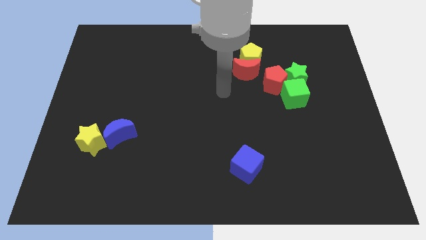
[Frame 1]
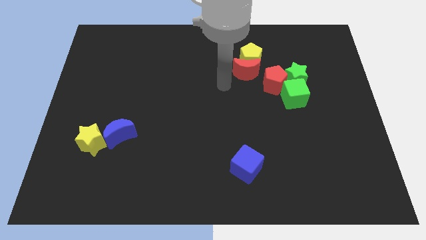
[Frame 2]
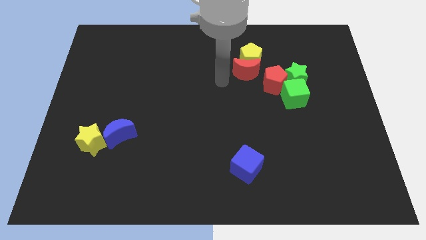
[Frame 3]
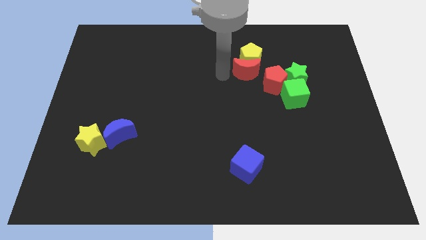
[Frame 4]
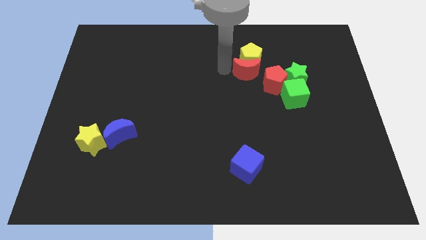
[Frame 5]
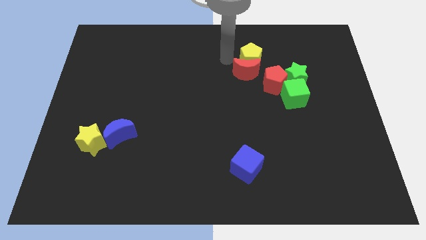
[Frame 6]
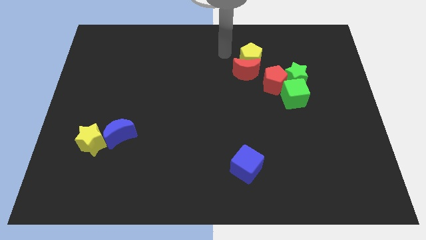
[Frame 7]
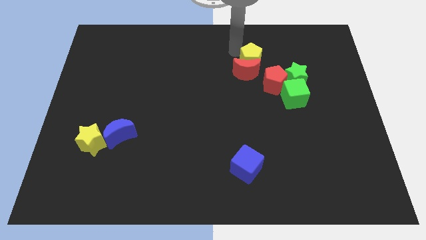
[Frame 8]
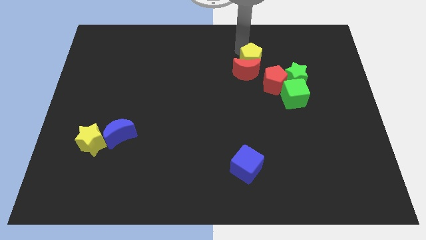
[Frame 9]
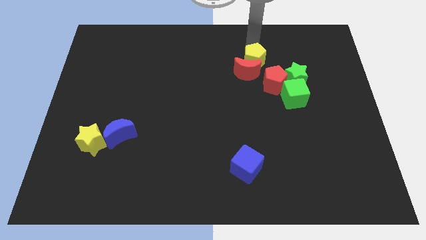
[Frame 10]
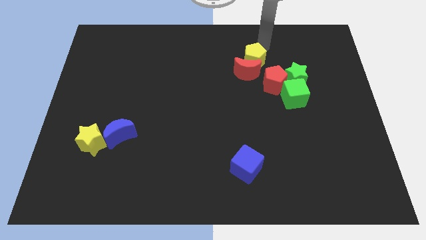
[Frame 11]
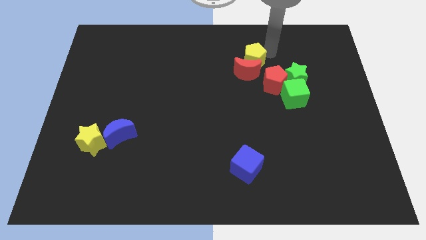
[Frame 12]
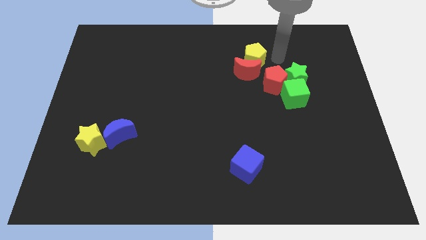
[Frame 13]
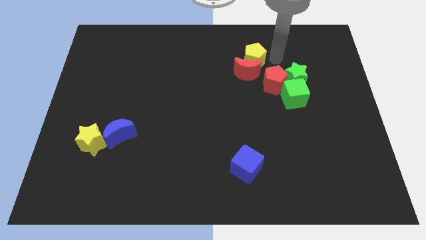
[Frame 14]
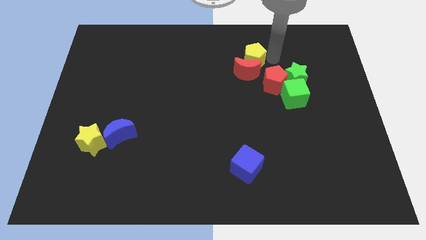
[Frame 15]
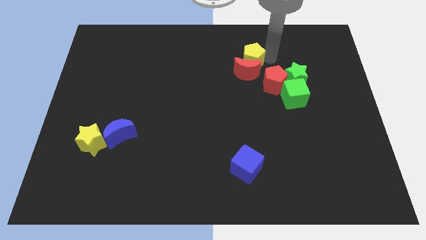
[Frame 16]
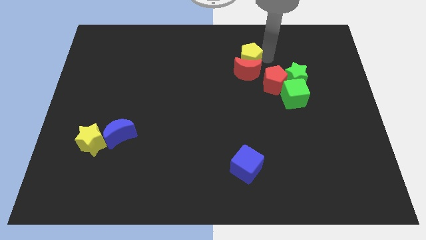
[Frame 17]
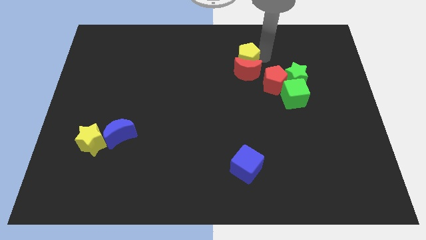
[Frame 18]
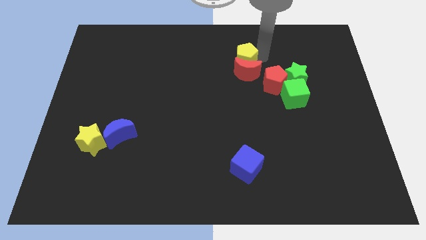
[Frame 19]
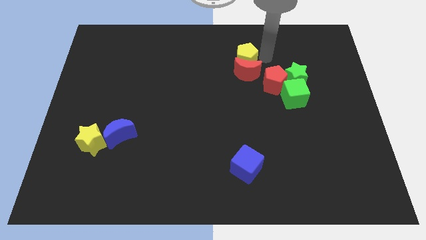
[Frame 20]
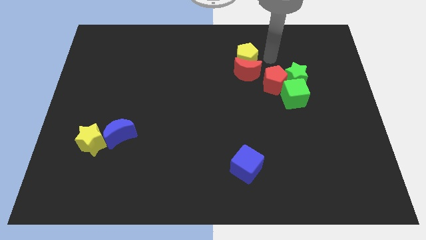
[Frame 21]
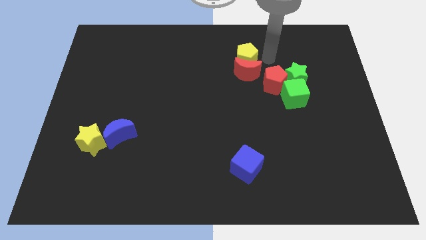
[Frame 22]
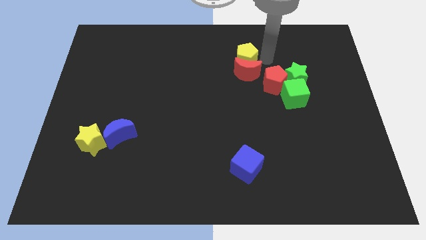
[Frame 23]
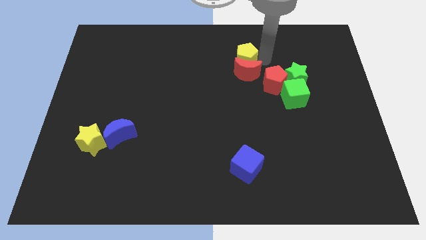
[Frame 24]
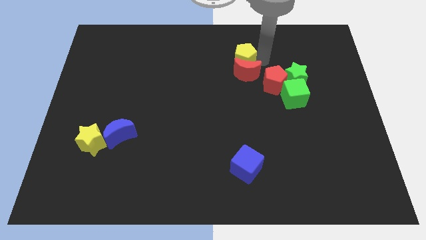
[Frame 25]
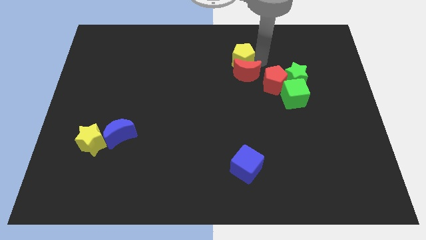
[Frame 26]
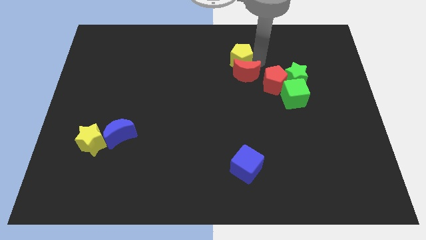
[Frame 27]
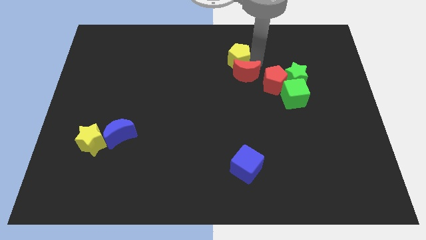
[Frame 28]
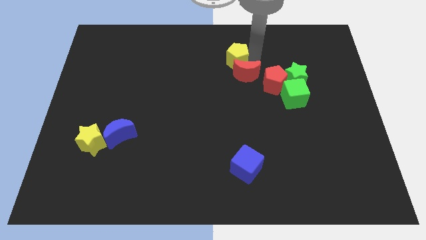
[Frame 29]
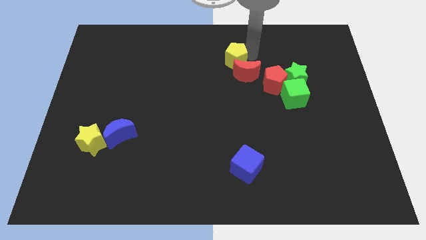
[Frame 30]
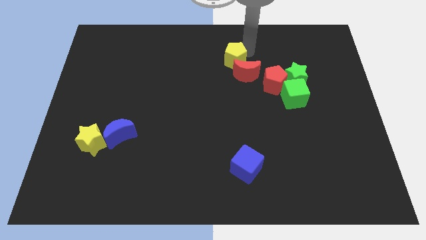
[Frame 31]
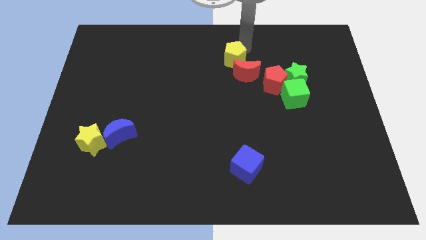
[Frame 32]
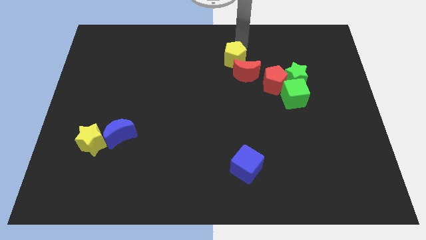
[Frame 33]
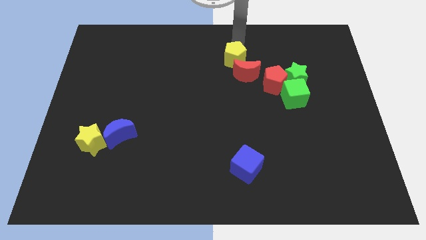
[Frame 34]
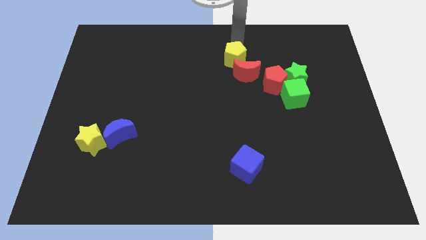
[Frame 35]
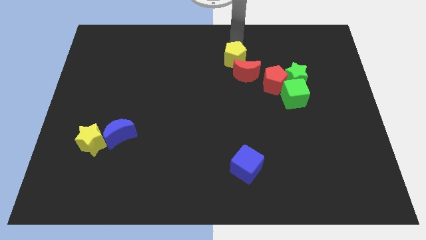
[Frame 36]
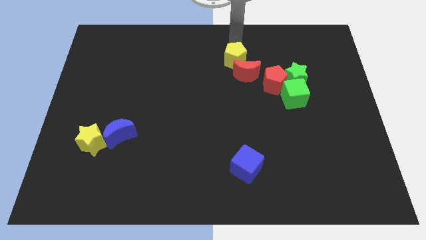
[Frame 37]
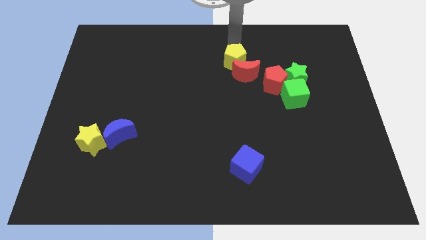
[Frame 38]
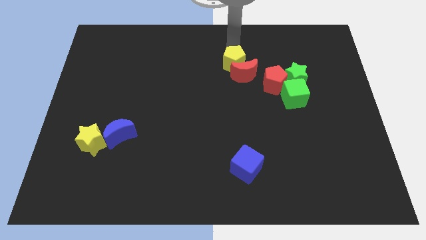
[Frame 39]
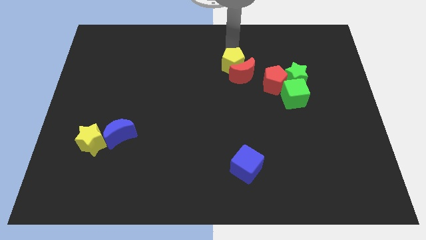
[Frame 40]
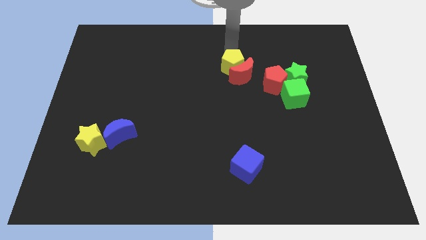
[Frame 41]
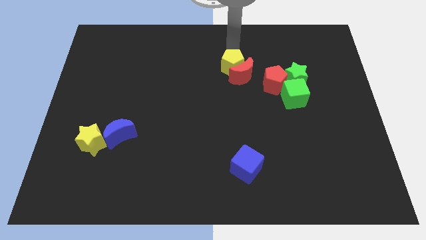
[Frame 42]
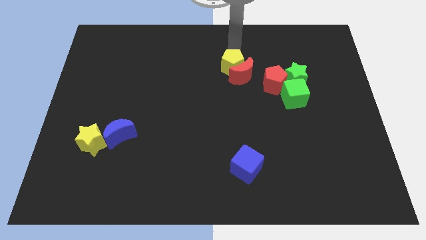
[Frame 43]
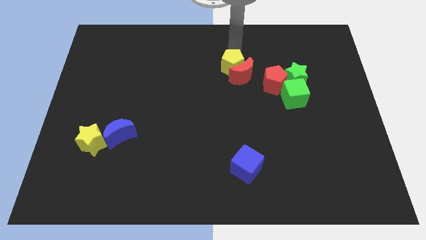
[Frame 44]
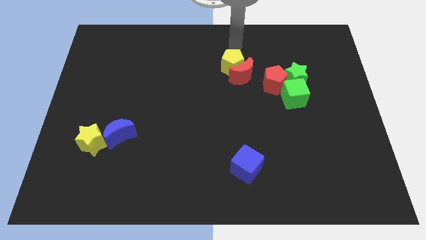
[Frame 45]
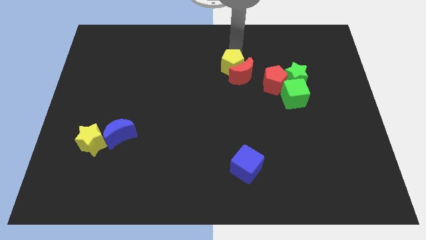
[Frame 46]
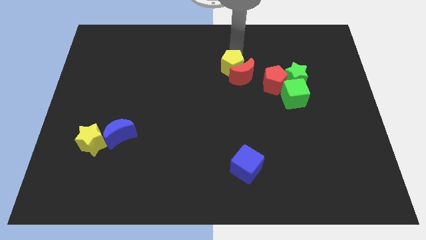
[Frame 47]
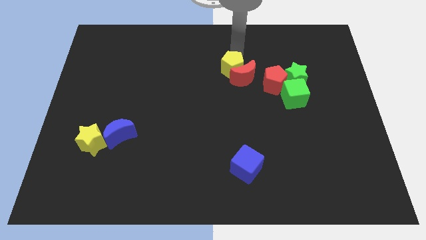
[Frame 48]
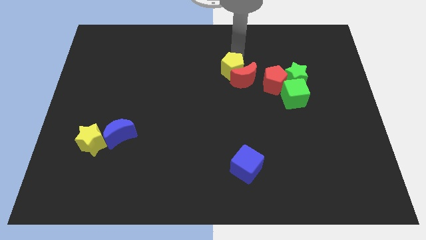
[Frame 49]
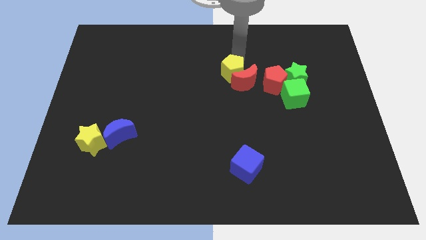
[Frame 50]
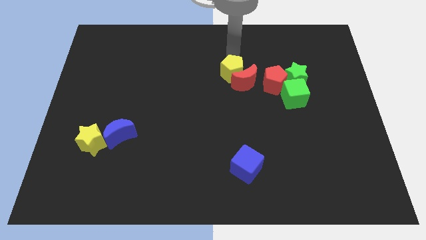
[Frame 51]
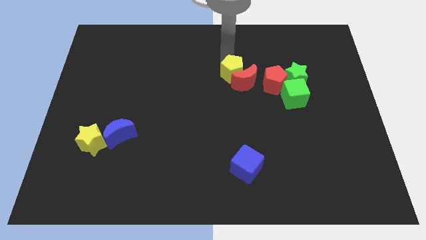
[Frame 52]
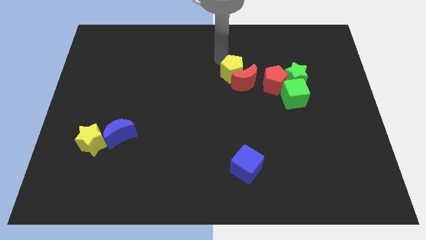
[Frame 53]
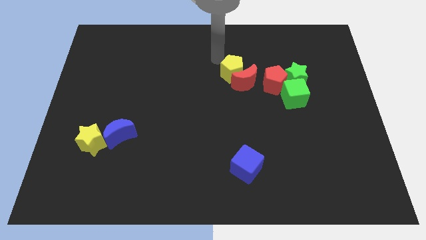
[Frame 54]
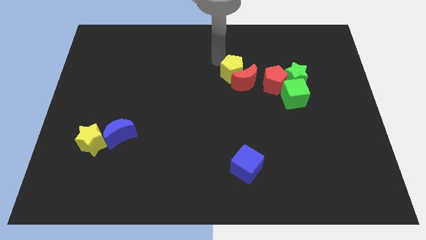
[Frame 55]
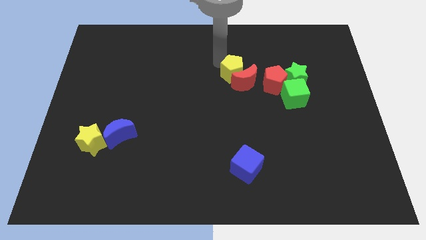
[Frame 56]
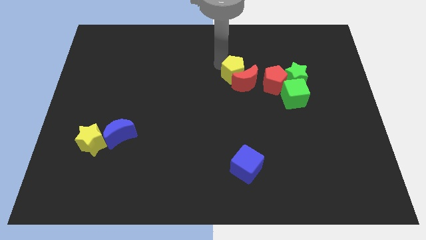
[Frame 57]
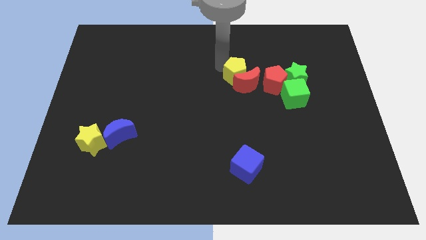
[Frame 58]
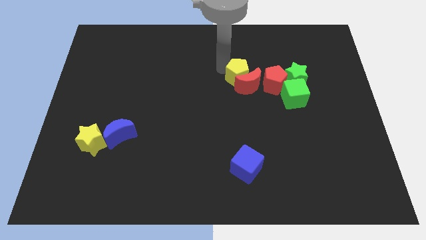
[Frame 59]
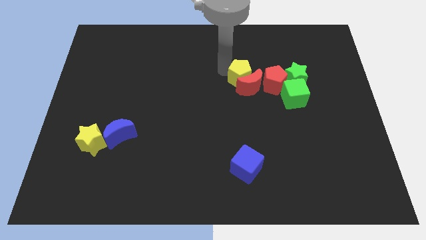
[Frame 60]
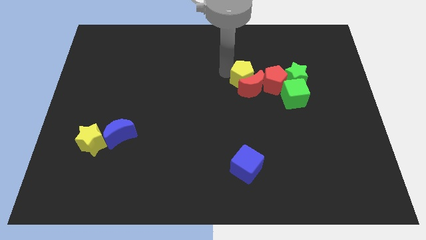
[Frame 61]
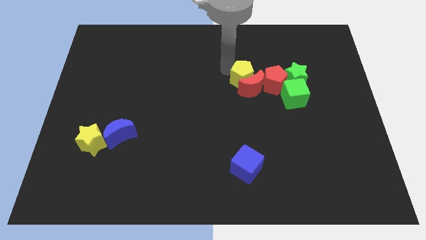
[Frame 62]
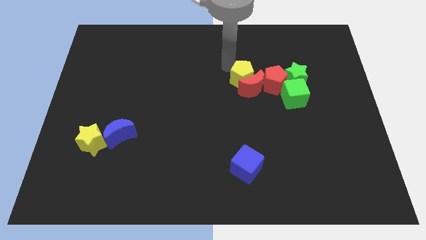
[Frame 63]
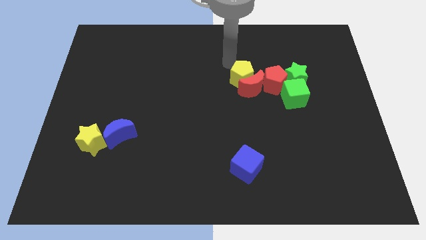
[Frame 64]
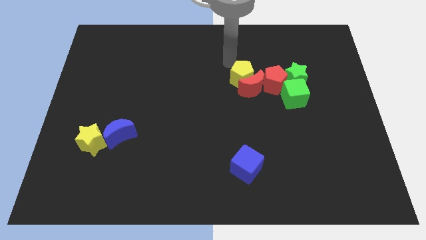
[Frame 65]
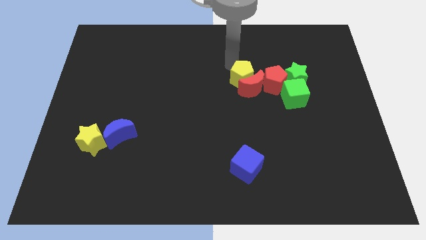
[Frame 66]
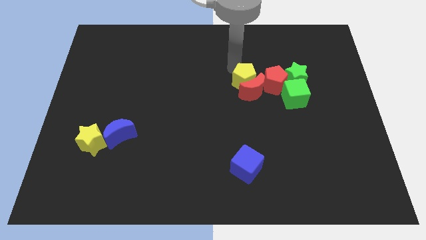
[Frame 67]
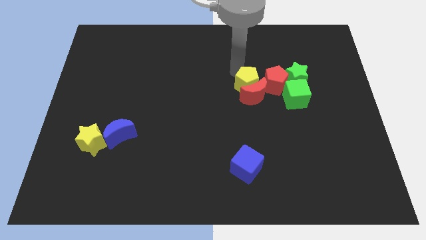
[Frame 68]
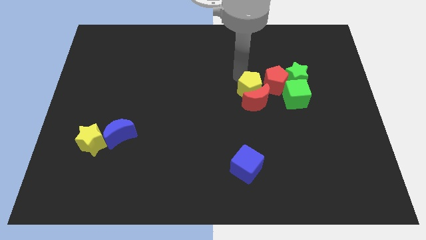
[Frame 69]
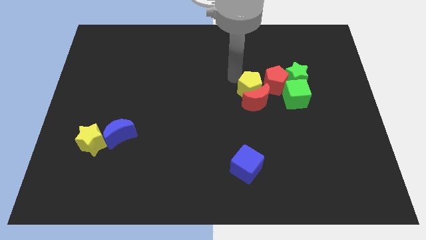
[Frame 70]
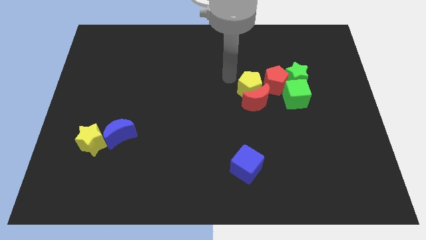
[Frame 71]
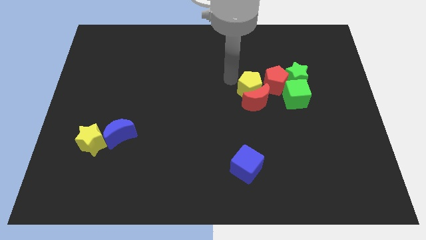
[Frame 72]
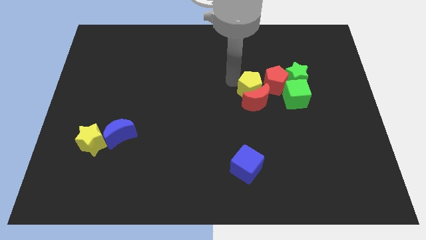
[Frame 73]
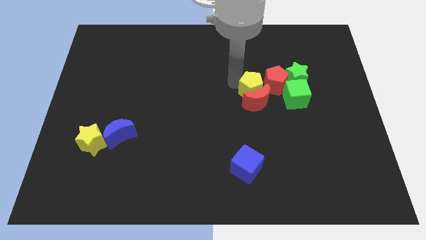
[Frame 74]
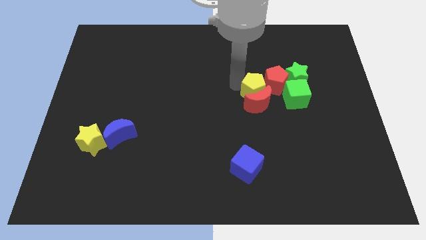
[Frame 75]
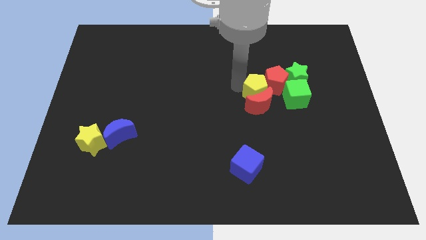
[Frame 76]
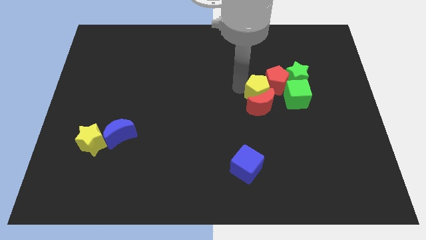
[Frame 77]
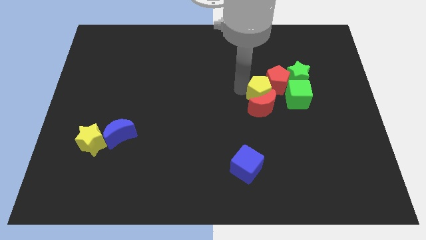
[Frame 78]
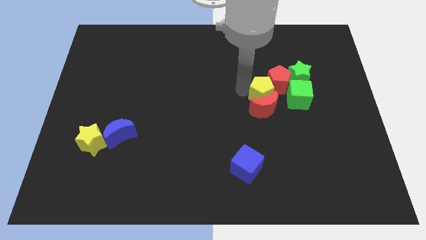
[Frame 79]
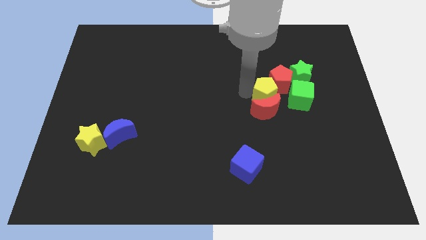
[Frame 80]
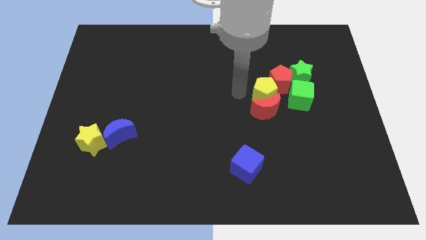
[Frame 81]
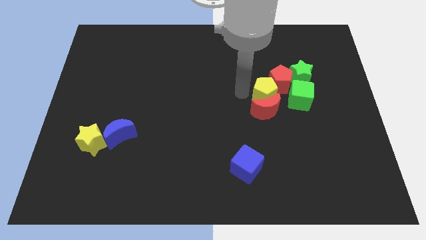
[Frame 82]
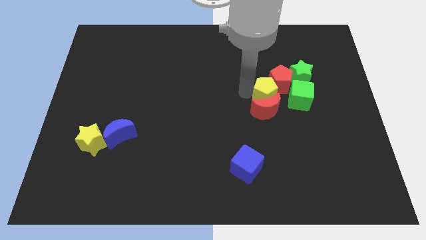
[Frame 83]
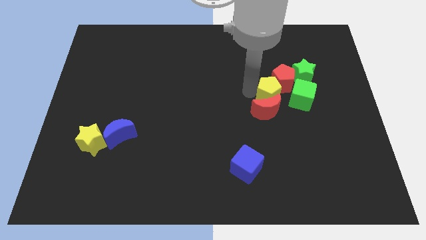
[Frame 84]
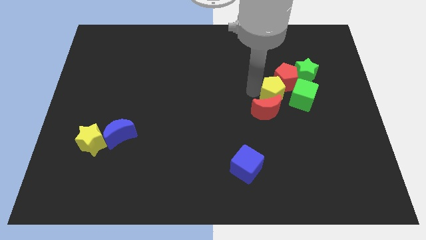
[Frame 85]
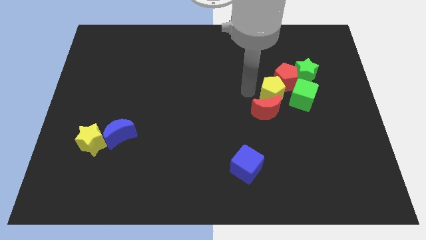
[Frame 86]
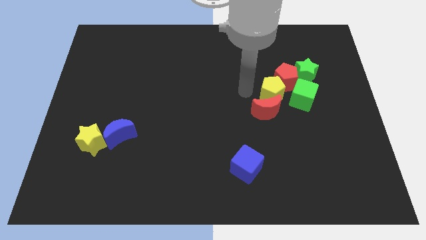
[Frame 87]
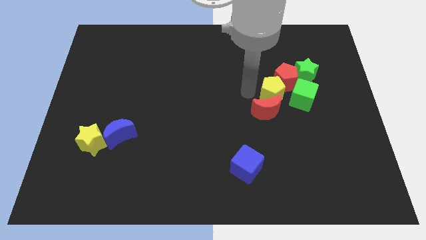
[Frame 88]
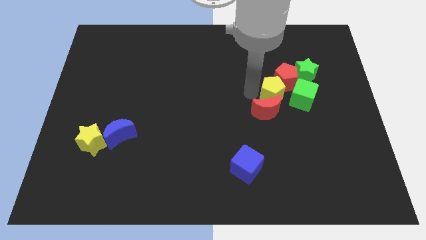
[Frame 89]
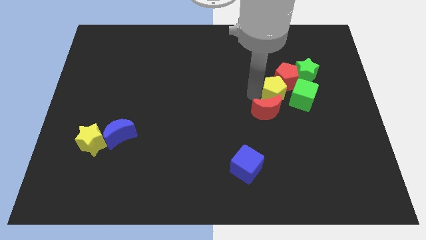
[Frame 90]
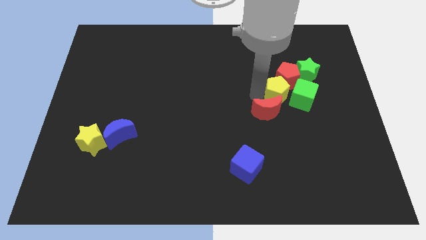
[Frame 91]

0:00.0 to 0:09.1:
put the yellow pentagon next to the green cube
